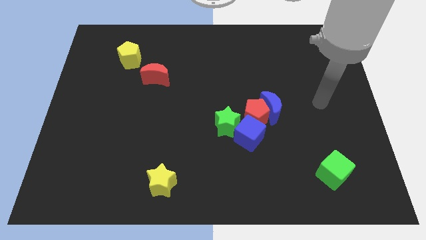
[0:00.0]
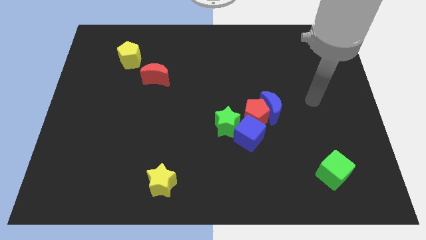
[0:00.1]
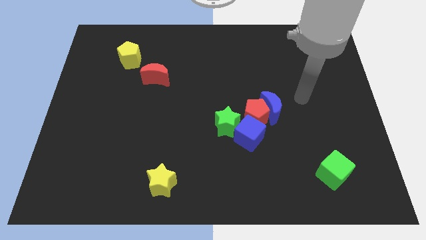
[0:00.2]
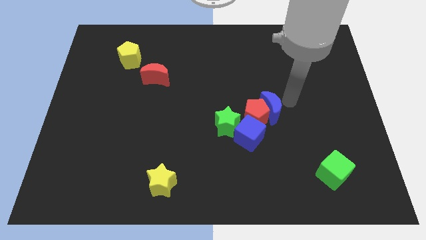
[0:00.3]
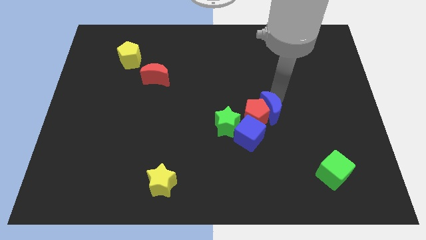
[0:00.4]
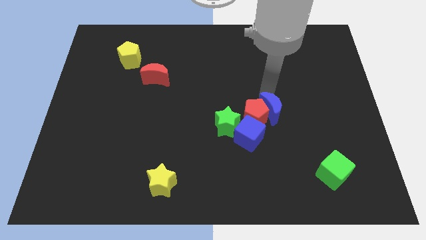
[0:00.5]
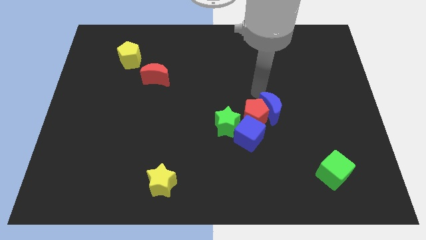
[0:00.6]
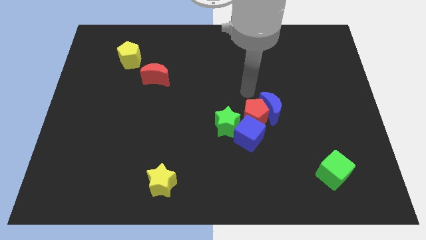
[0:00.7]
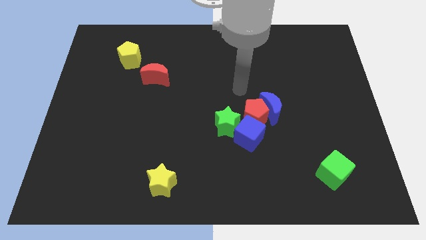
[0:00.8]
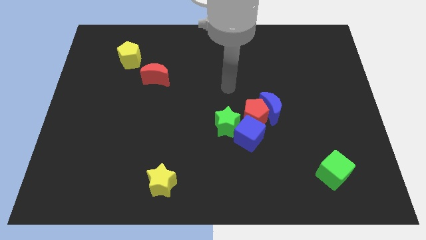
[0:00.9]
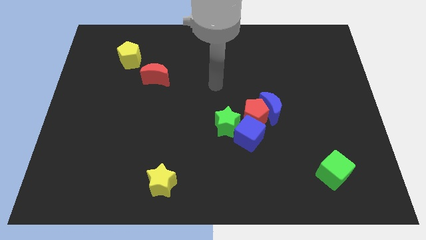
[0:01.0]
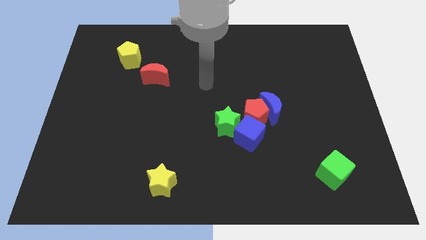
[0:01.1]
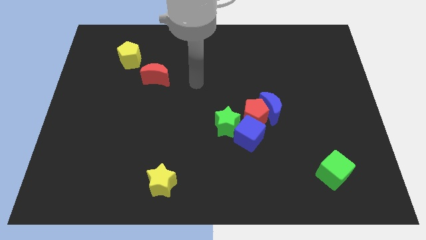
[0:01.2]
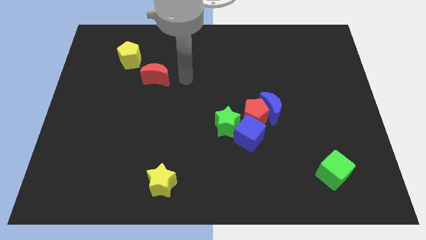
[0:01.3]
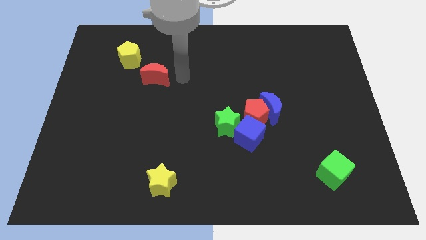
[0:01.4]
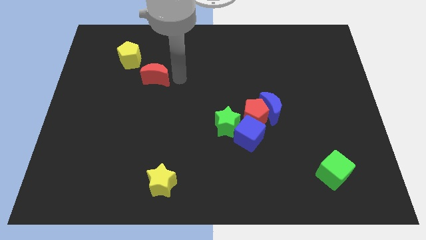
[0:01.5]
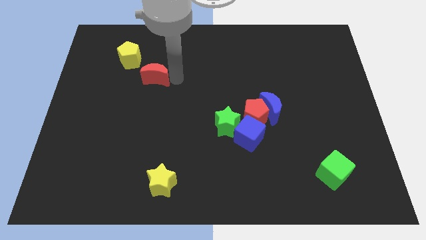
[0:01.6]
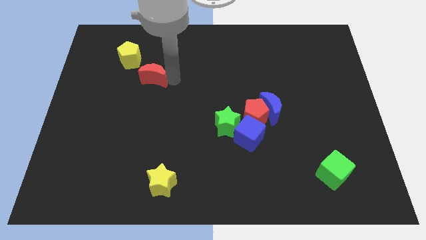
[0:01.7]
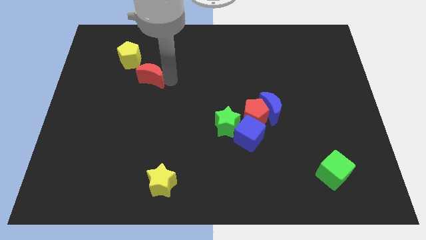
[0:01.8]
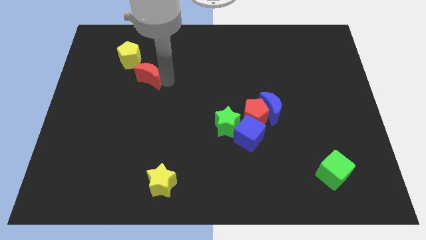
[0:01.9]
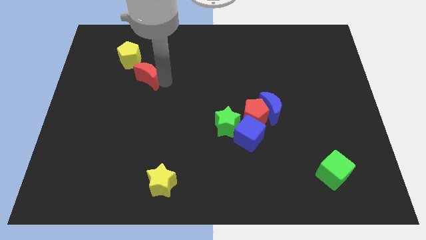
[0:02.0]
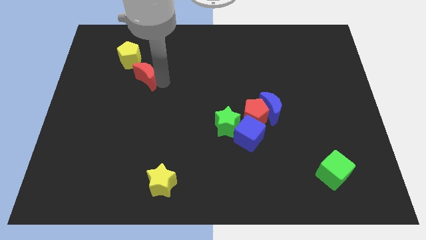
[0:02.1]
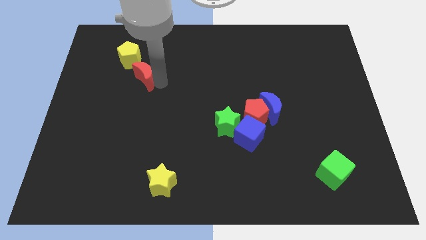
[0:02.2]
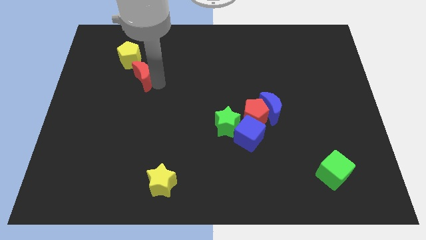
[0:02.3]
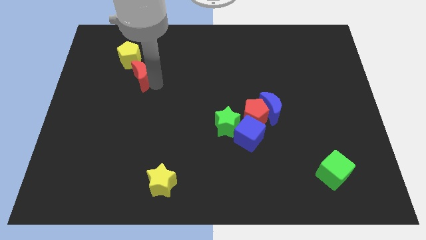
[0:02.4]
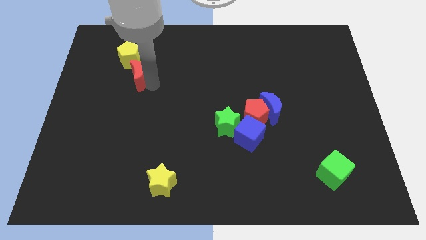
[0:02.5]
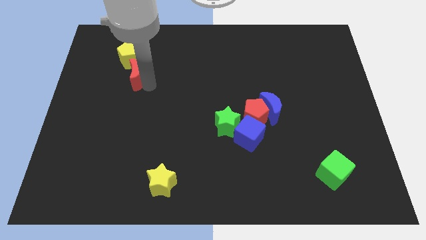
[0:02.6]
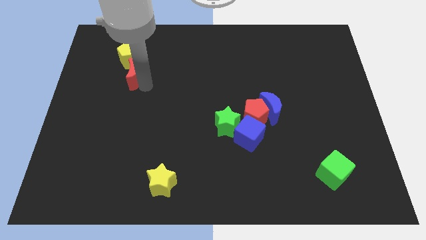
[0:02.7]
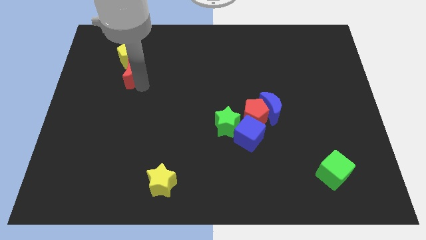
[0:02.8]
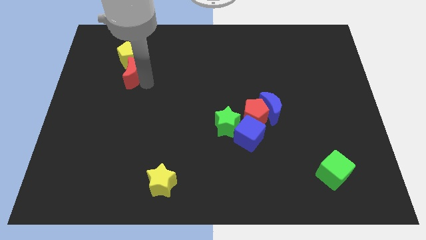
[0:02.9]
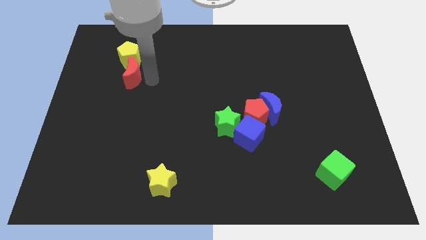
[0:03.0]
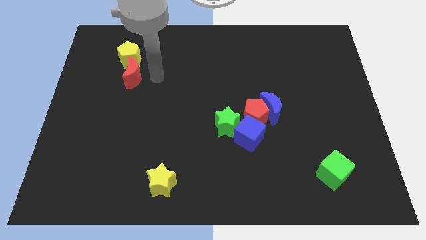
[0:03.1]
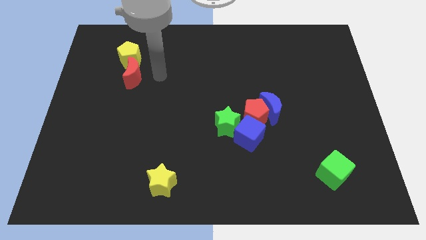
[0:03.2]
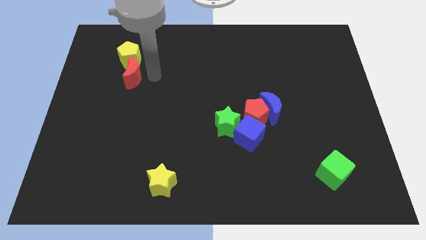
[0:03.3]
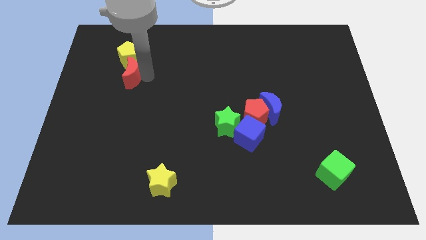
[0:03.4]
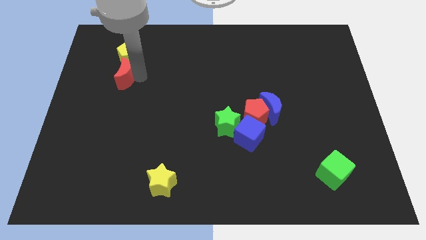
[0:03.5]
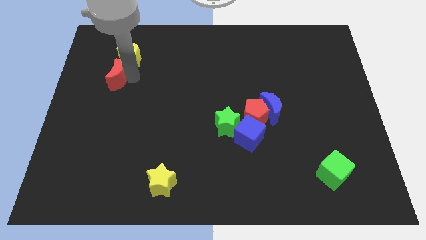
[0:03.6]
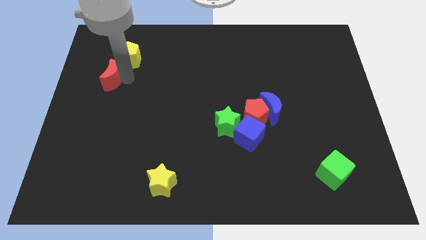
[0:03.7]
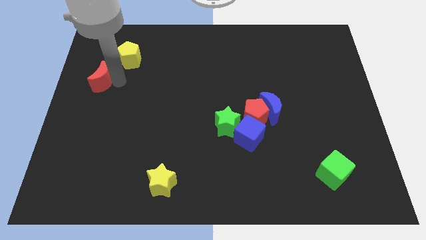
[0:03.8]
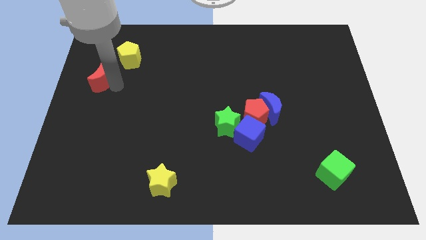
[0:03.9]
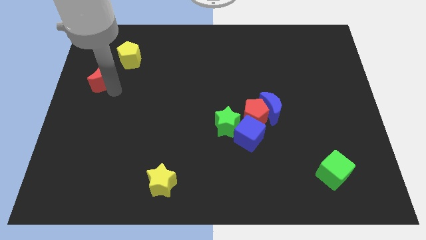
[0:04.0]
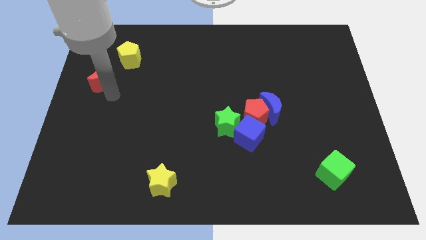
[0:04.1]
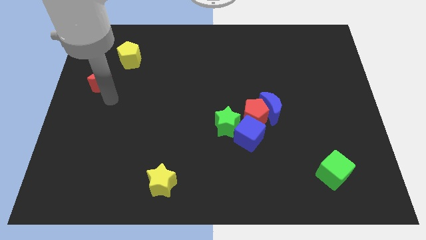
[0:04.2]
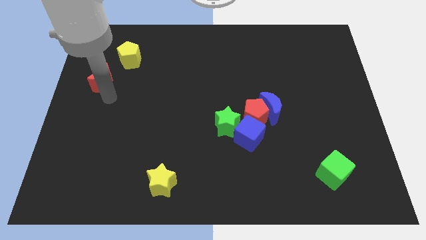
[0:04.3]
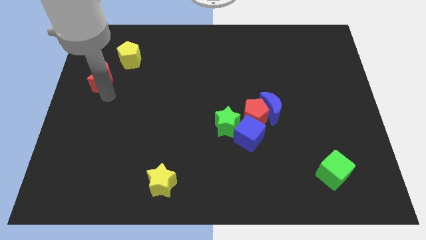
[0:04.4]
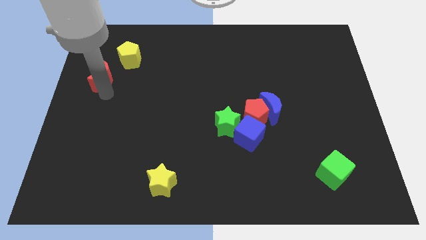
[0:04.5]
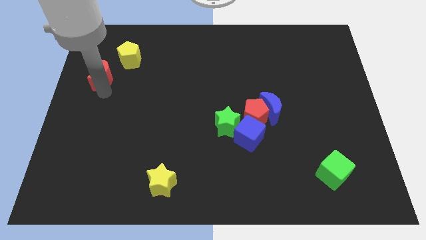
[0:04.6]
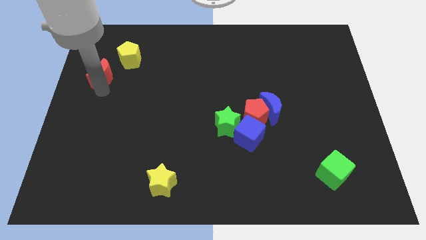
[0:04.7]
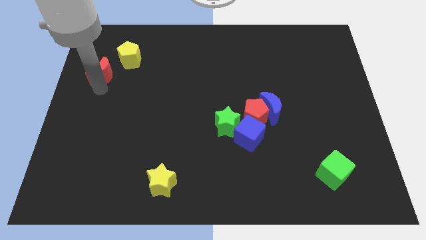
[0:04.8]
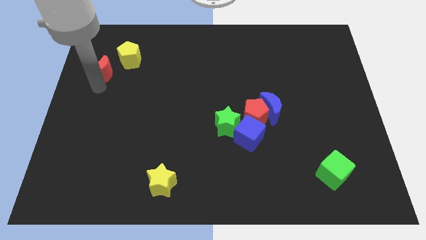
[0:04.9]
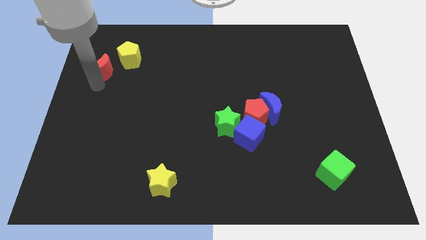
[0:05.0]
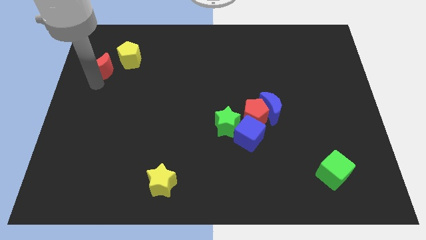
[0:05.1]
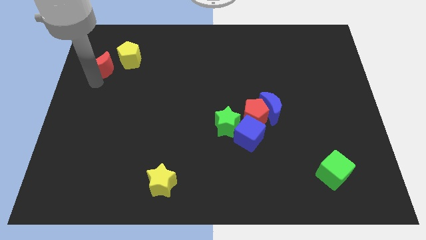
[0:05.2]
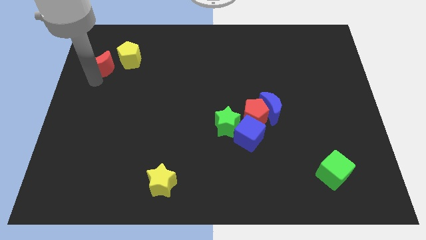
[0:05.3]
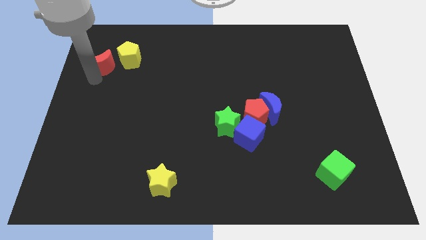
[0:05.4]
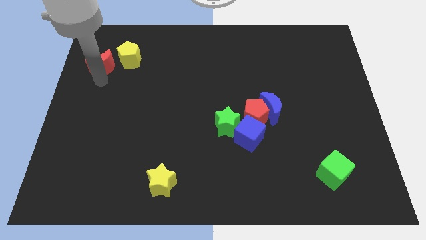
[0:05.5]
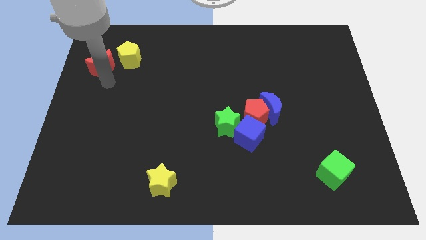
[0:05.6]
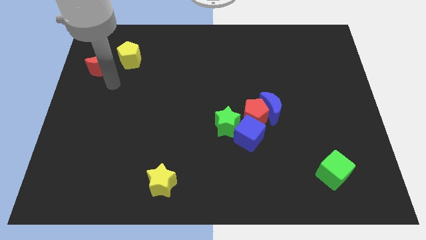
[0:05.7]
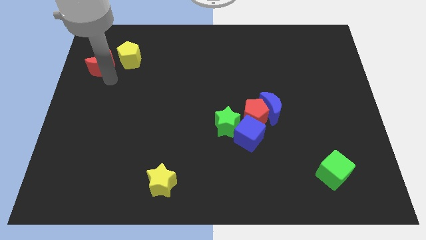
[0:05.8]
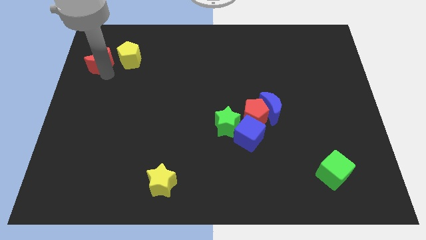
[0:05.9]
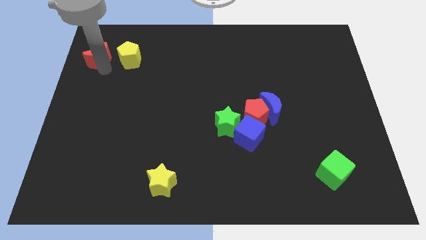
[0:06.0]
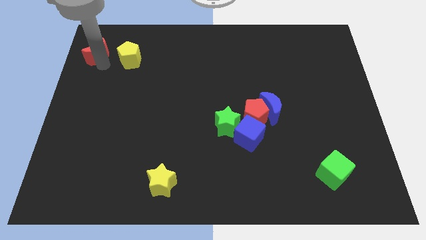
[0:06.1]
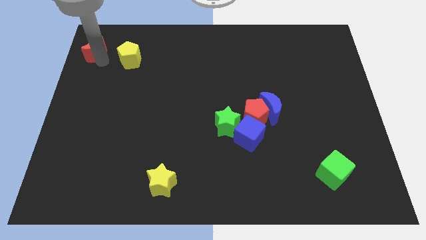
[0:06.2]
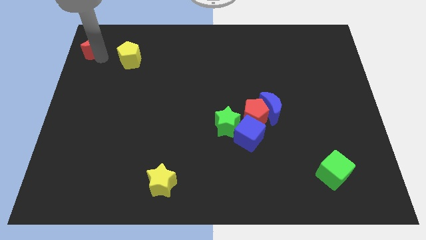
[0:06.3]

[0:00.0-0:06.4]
put the red moon to the upper left corner
